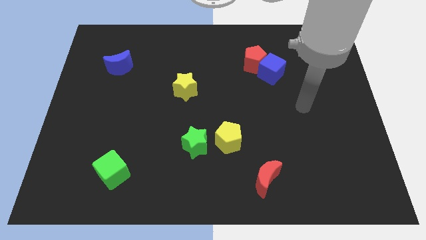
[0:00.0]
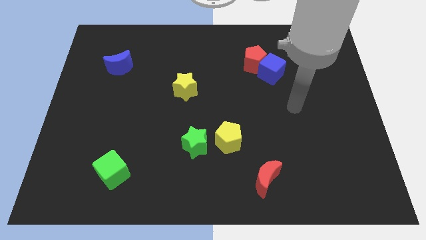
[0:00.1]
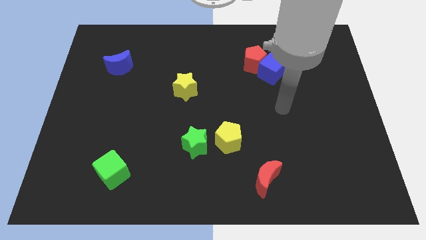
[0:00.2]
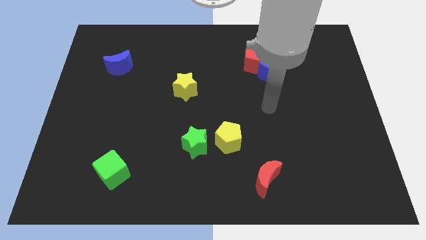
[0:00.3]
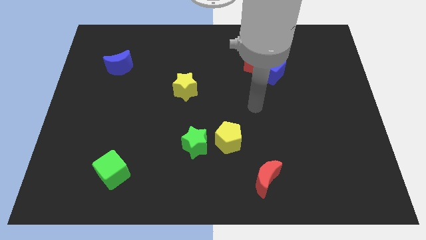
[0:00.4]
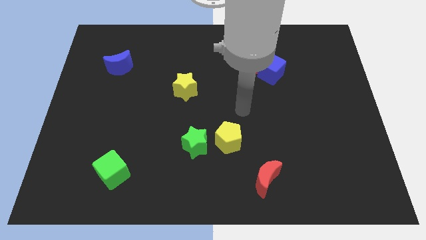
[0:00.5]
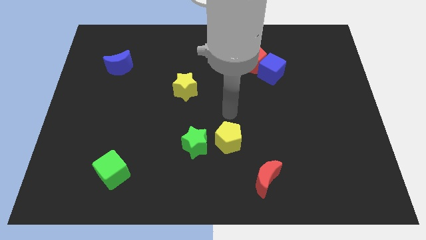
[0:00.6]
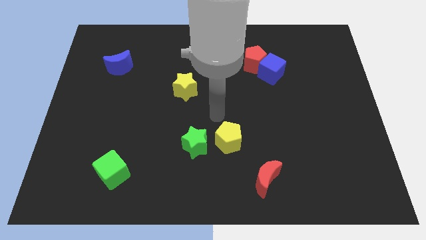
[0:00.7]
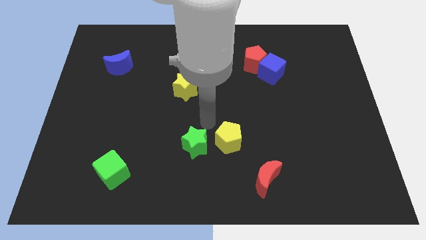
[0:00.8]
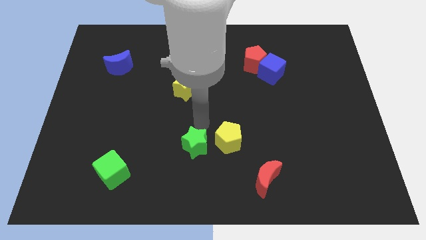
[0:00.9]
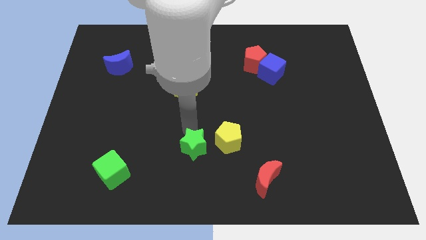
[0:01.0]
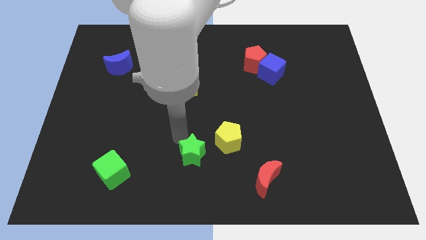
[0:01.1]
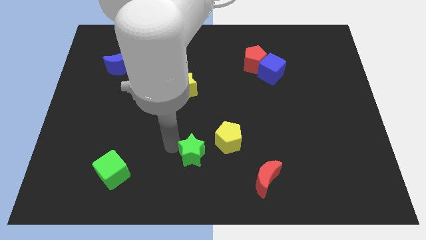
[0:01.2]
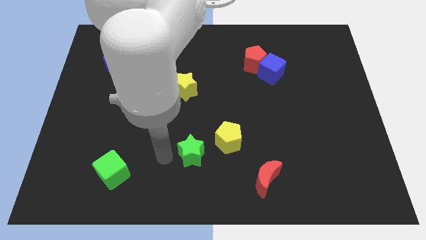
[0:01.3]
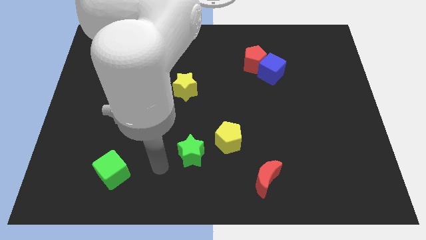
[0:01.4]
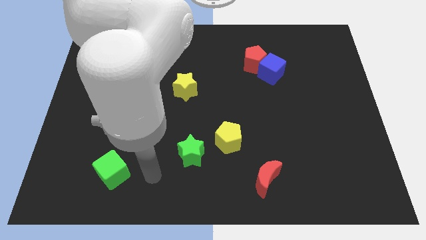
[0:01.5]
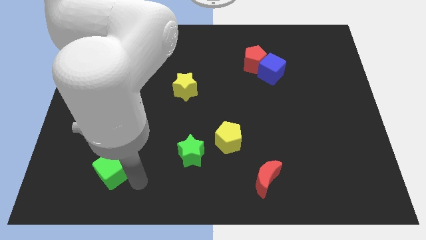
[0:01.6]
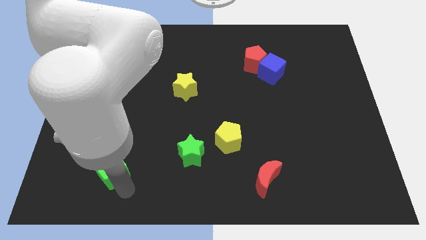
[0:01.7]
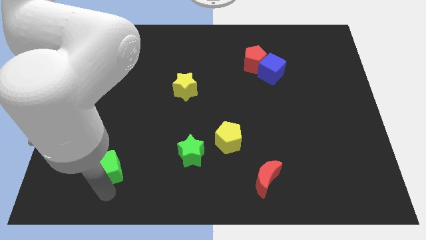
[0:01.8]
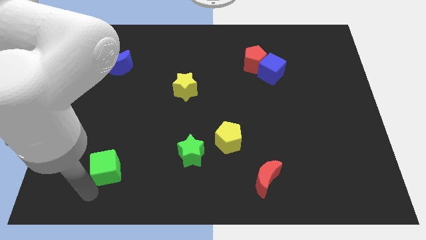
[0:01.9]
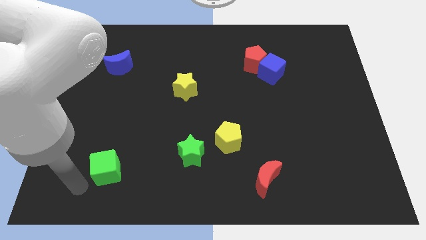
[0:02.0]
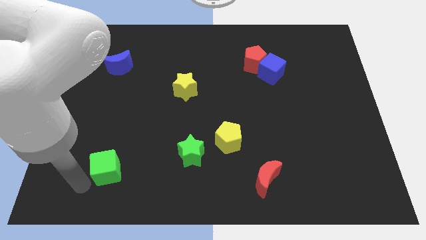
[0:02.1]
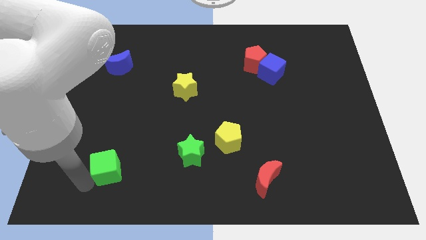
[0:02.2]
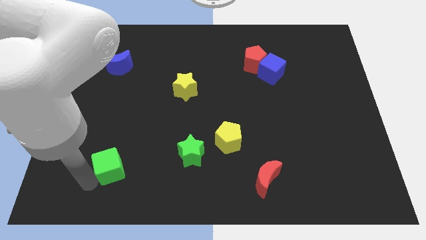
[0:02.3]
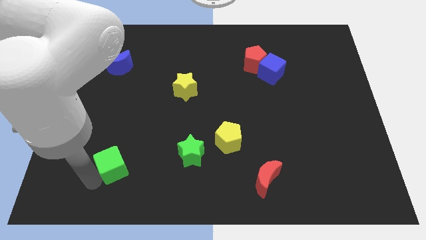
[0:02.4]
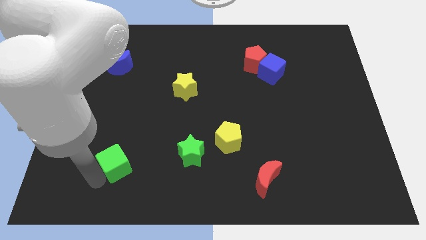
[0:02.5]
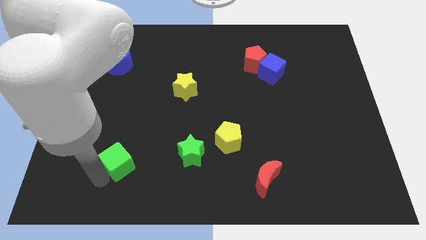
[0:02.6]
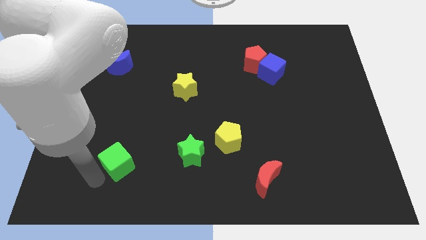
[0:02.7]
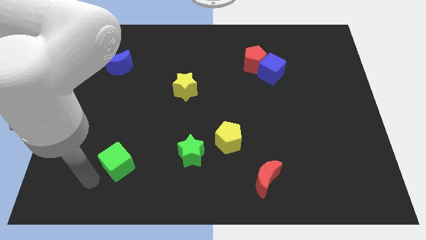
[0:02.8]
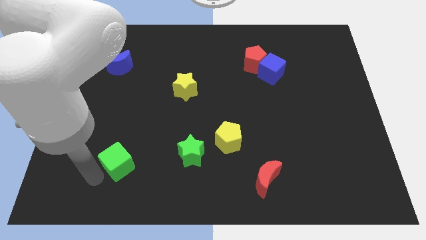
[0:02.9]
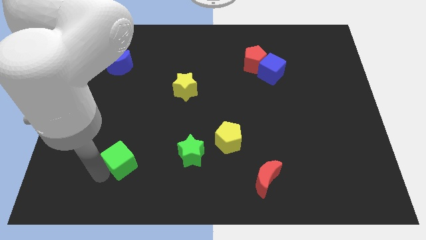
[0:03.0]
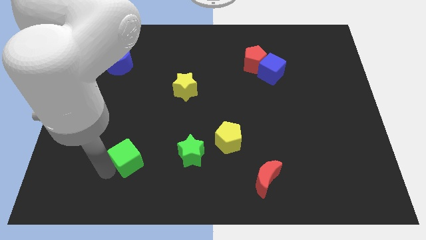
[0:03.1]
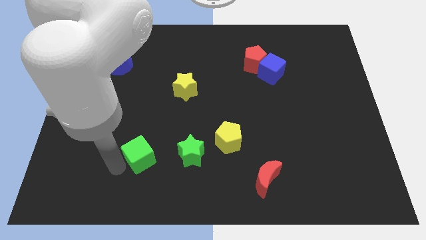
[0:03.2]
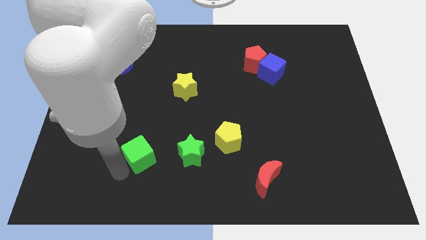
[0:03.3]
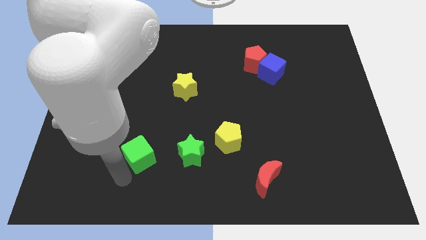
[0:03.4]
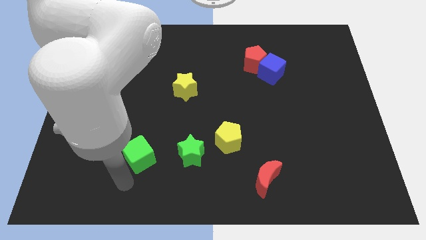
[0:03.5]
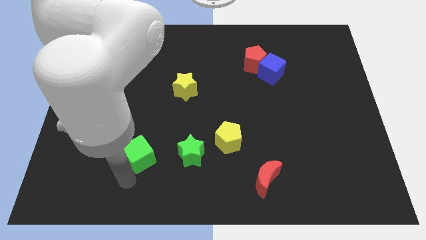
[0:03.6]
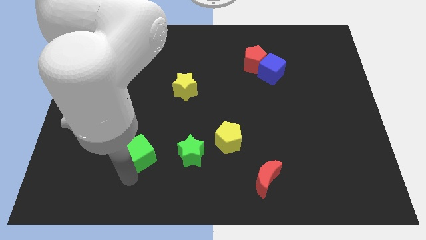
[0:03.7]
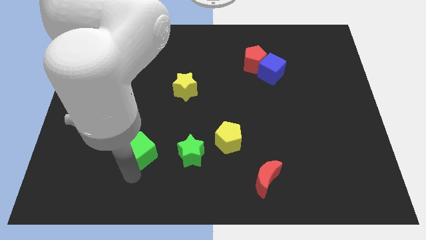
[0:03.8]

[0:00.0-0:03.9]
slightly slide the green cube diagonally up and right

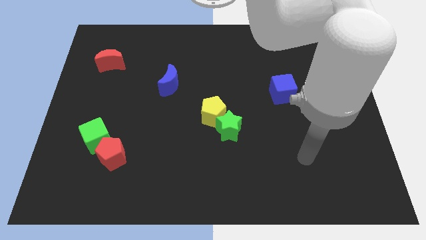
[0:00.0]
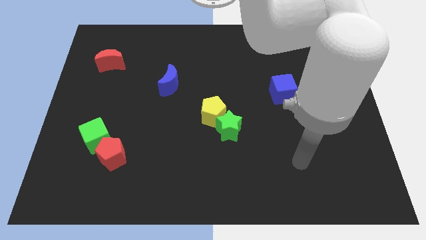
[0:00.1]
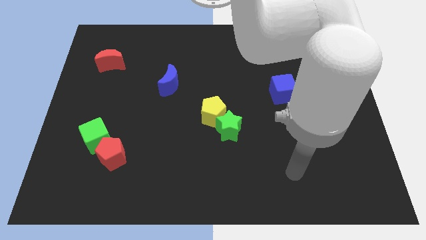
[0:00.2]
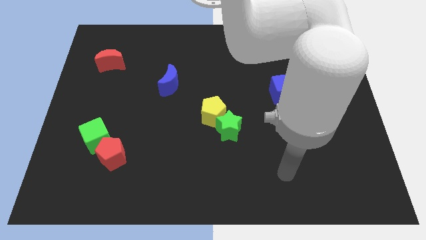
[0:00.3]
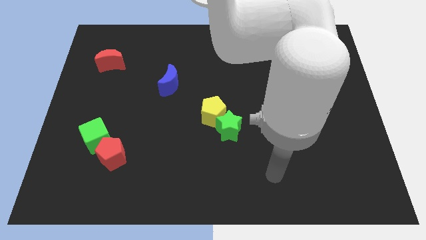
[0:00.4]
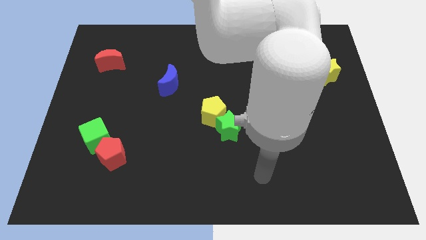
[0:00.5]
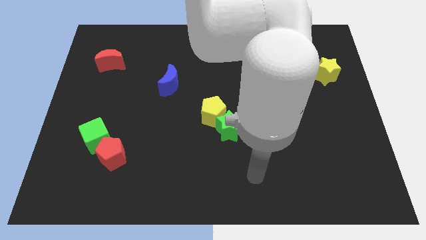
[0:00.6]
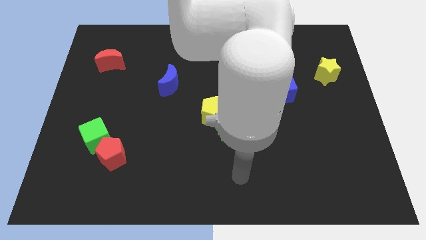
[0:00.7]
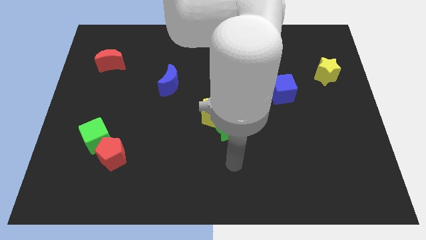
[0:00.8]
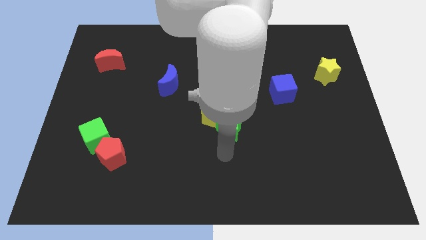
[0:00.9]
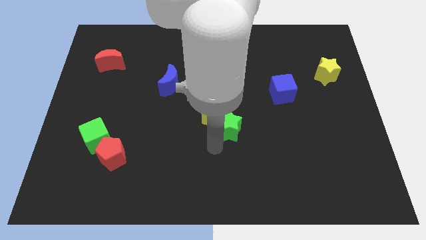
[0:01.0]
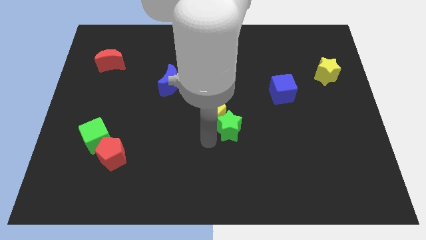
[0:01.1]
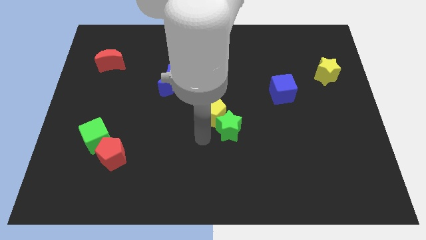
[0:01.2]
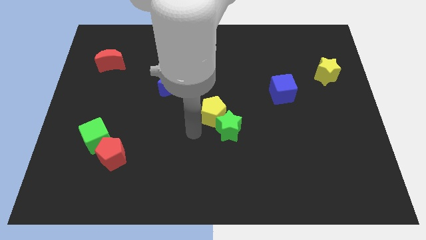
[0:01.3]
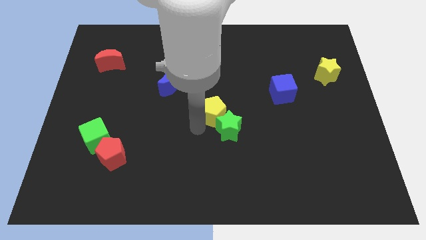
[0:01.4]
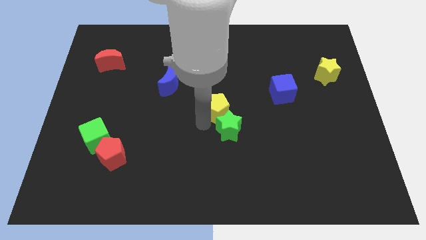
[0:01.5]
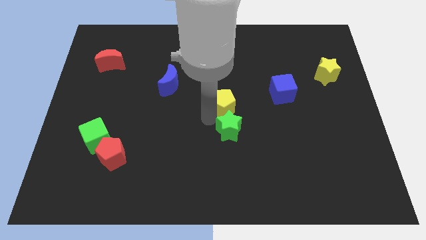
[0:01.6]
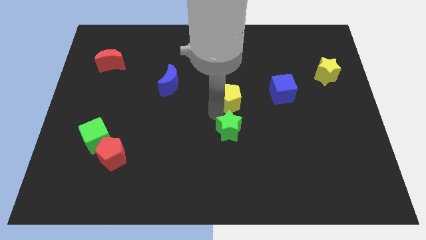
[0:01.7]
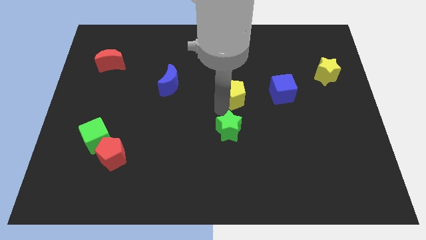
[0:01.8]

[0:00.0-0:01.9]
slide the yellow pentagon a little diagonally upwards and right

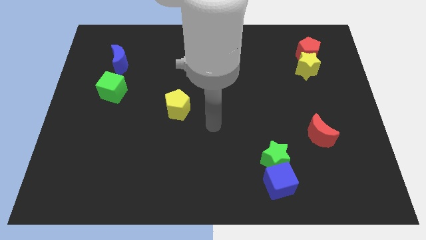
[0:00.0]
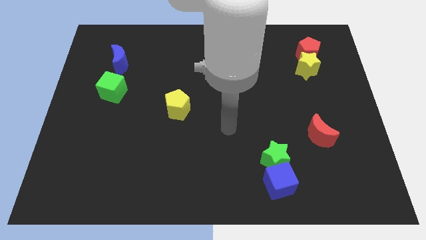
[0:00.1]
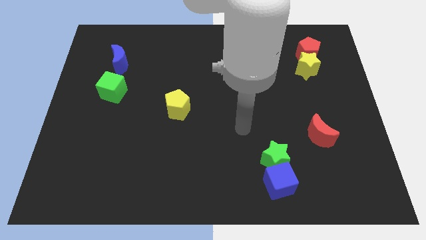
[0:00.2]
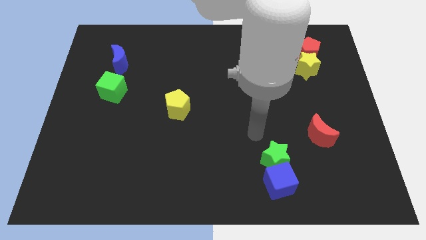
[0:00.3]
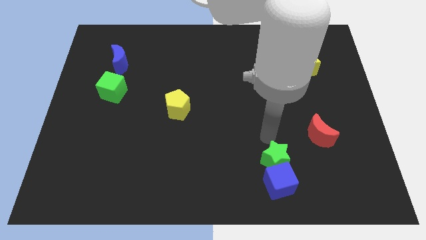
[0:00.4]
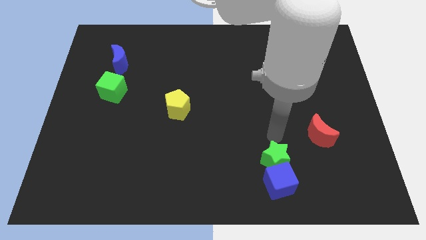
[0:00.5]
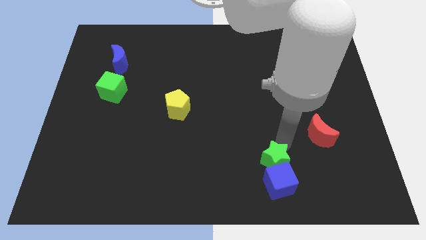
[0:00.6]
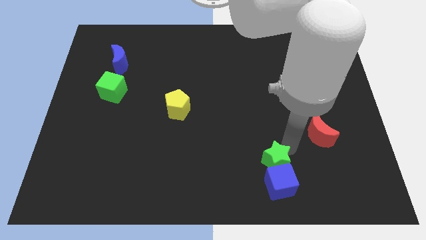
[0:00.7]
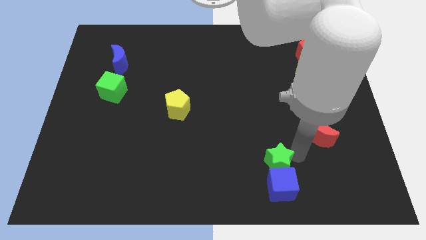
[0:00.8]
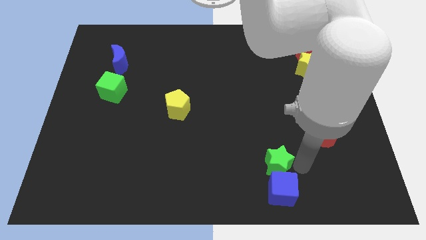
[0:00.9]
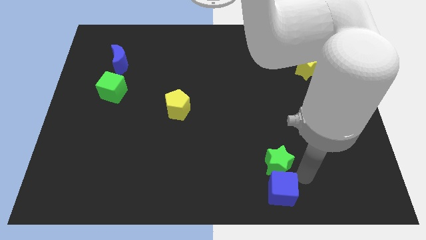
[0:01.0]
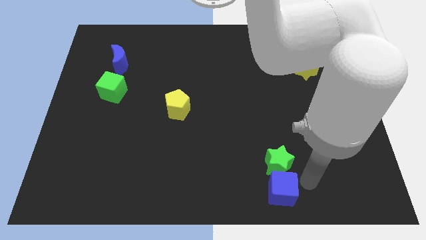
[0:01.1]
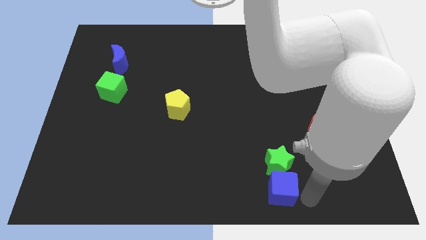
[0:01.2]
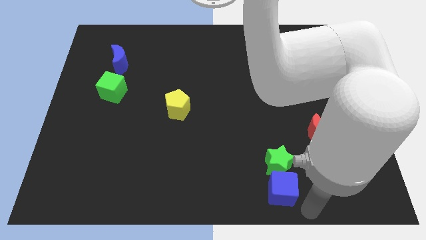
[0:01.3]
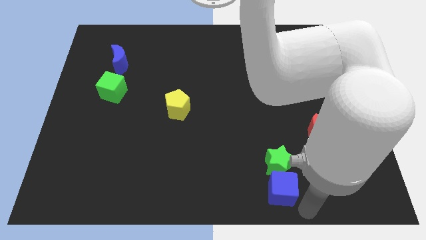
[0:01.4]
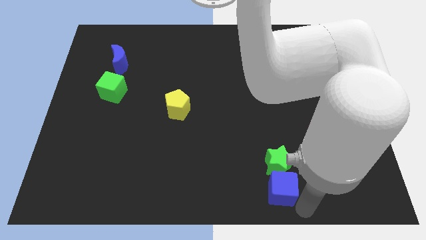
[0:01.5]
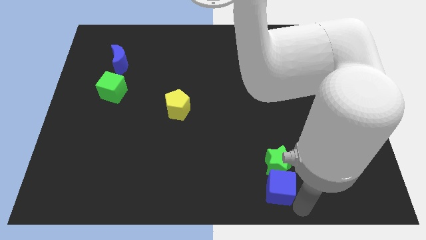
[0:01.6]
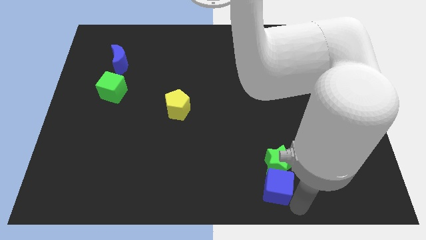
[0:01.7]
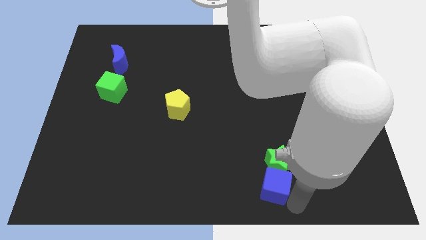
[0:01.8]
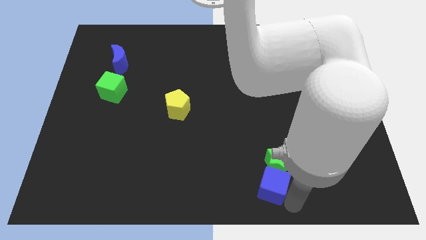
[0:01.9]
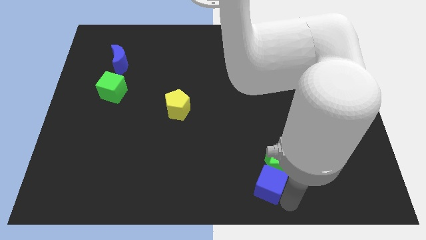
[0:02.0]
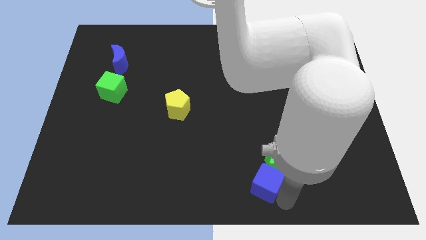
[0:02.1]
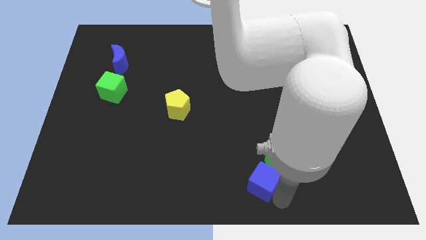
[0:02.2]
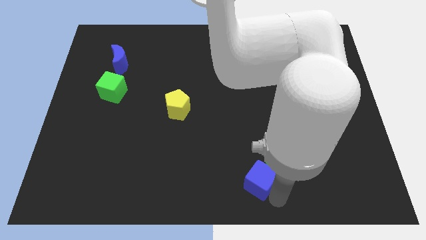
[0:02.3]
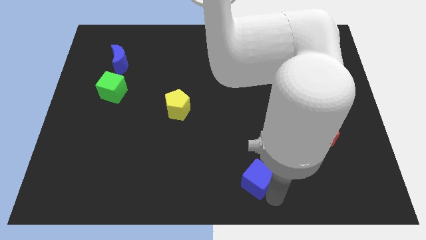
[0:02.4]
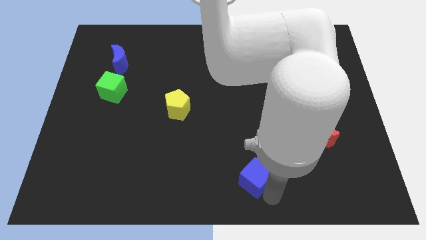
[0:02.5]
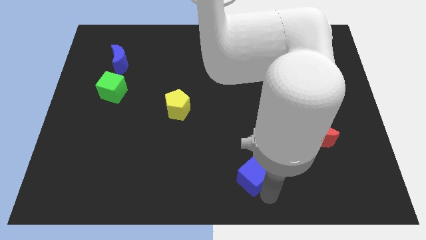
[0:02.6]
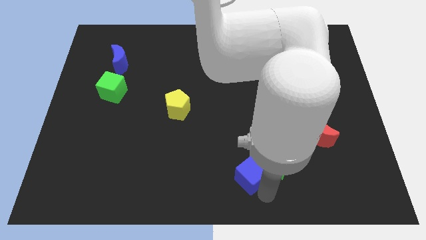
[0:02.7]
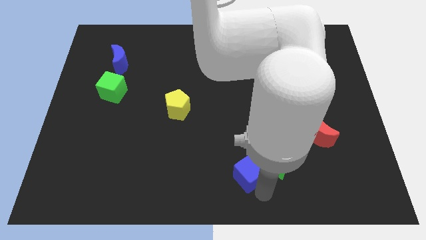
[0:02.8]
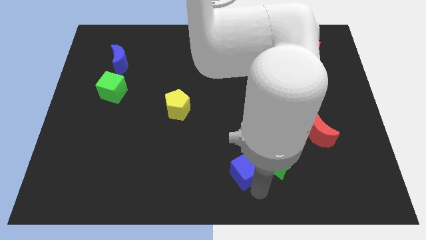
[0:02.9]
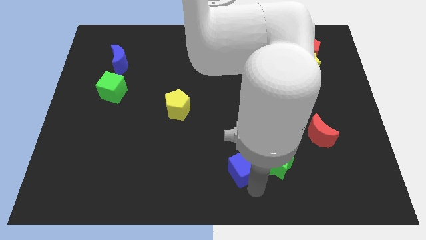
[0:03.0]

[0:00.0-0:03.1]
slightly move the blue cube upwards and to the left
